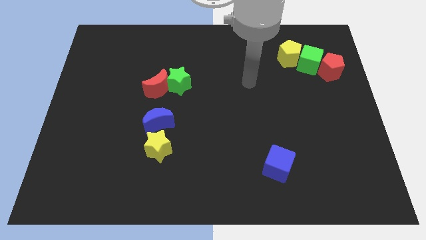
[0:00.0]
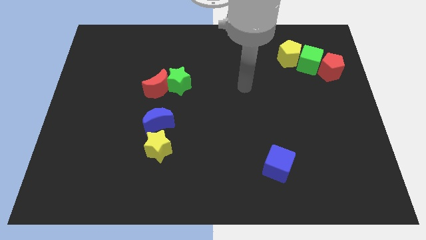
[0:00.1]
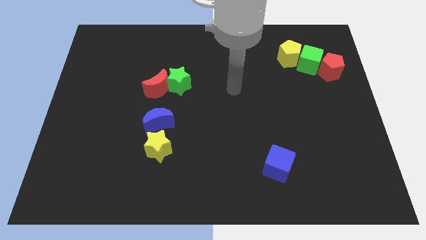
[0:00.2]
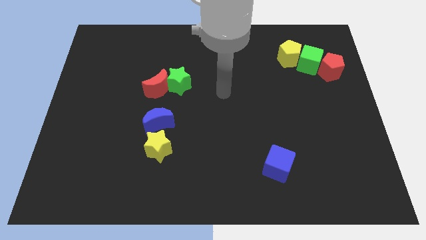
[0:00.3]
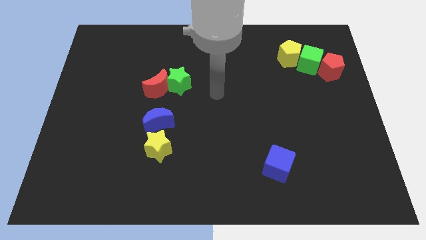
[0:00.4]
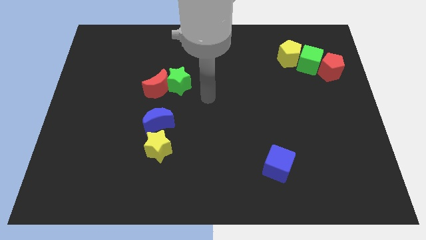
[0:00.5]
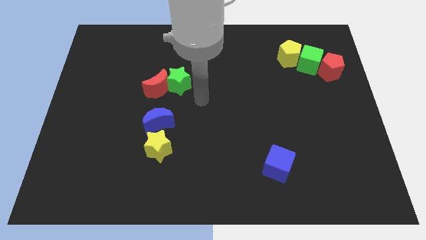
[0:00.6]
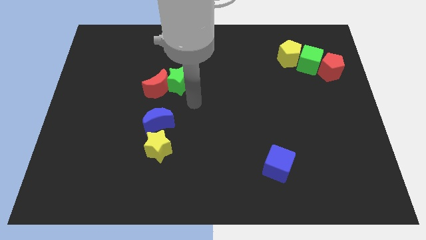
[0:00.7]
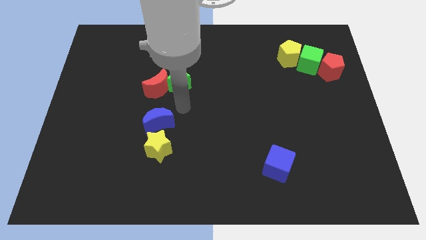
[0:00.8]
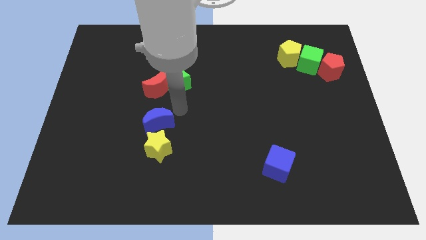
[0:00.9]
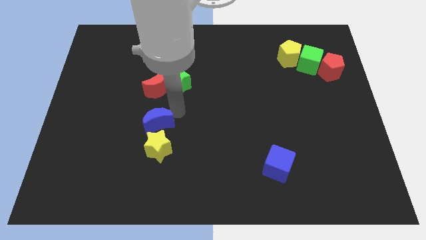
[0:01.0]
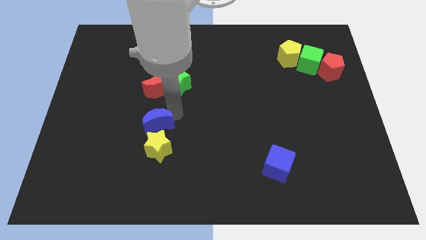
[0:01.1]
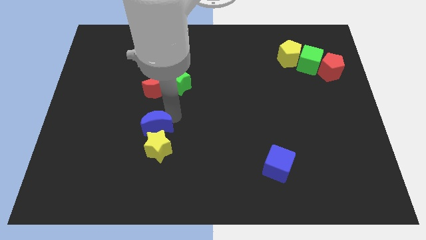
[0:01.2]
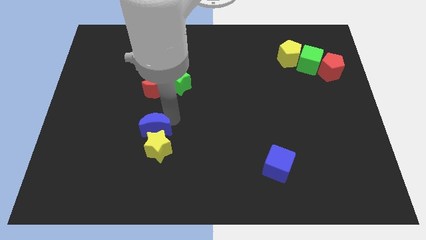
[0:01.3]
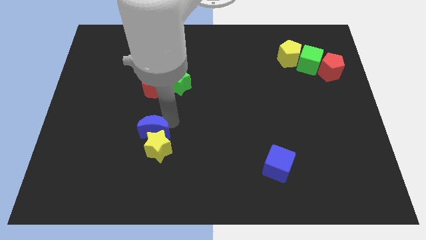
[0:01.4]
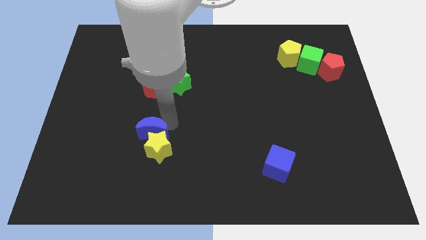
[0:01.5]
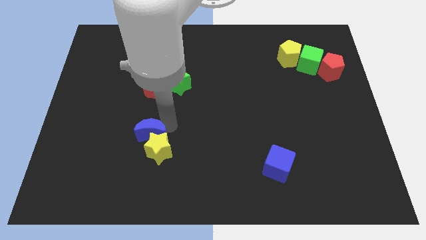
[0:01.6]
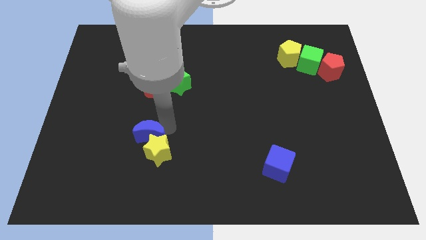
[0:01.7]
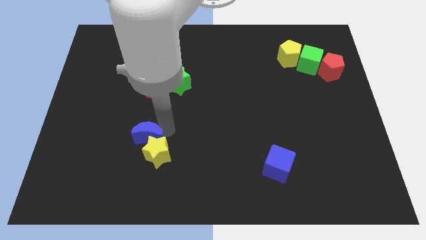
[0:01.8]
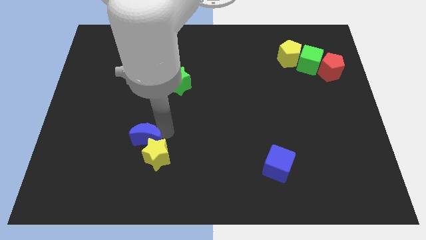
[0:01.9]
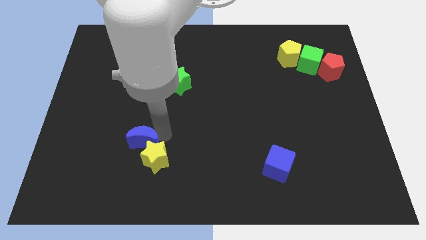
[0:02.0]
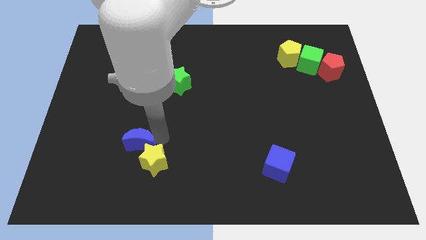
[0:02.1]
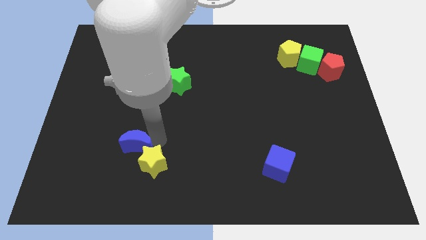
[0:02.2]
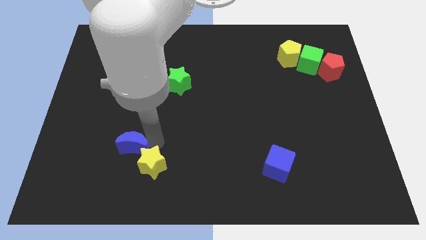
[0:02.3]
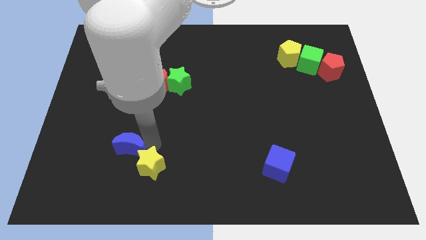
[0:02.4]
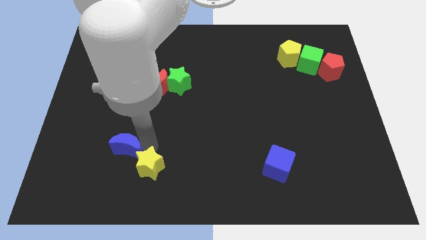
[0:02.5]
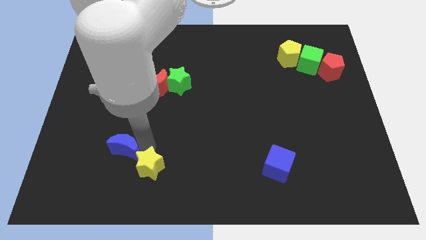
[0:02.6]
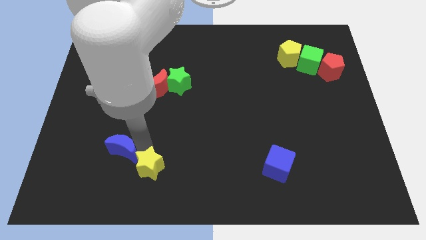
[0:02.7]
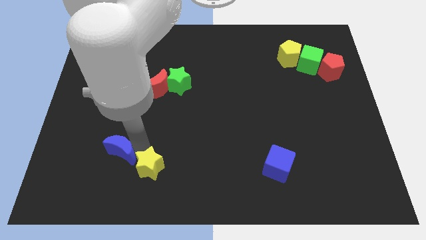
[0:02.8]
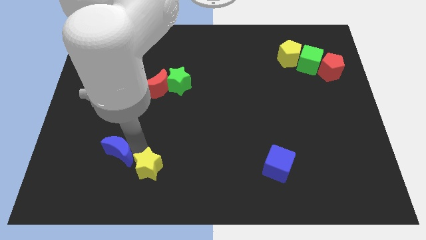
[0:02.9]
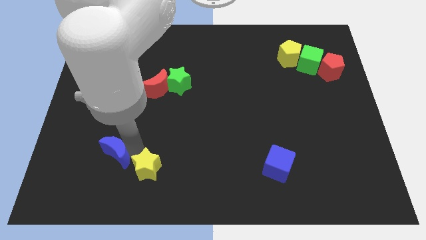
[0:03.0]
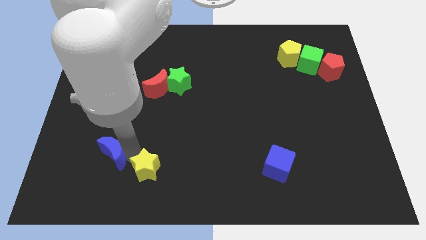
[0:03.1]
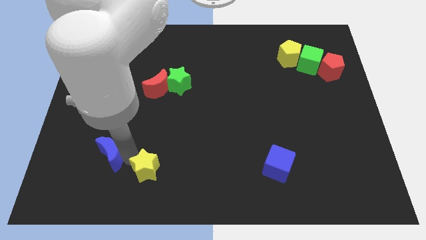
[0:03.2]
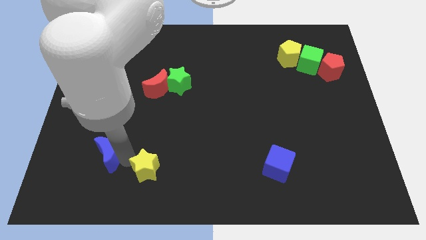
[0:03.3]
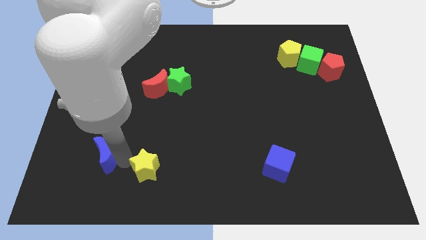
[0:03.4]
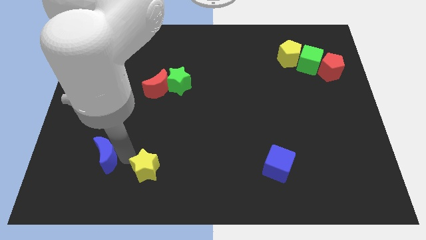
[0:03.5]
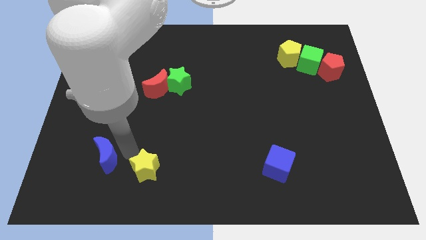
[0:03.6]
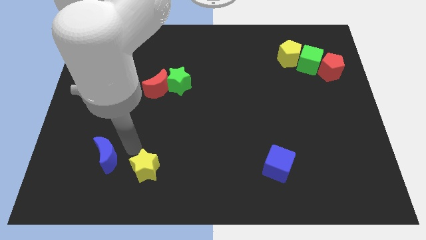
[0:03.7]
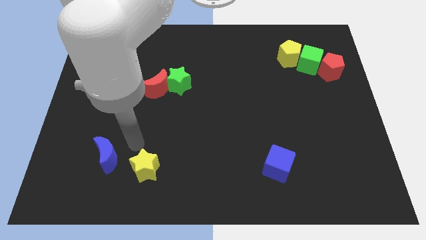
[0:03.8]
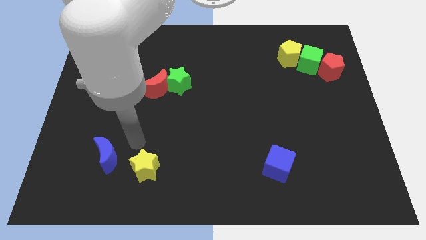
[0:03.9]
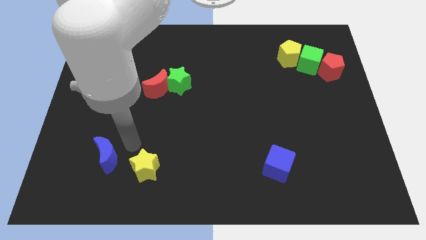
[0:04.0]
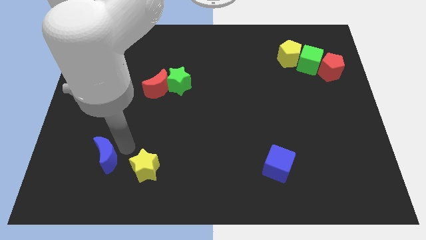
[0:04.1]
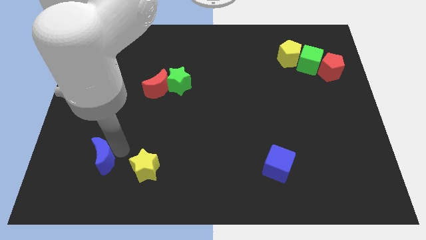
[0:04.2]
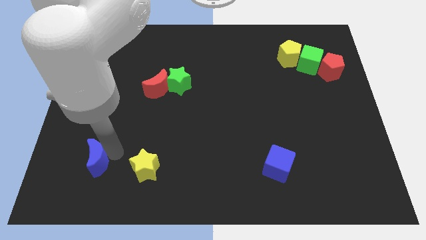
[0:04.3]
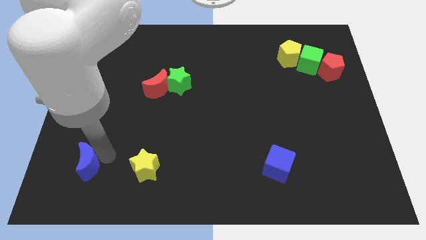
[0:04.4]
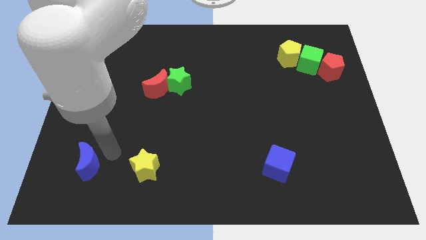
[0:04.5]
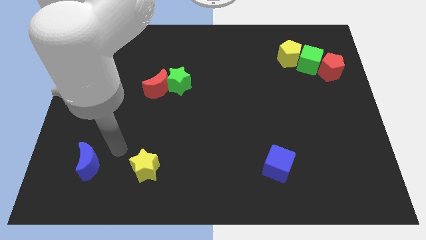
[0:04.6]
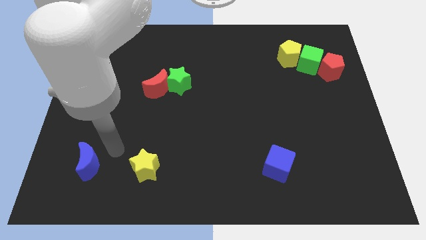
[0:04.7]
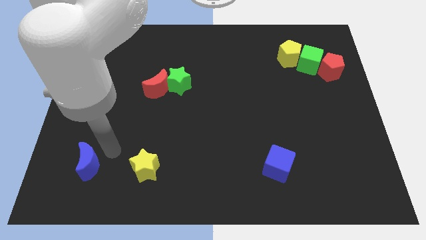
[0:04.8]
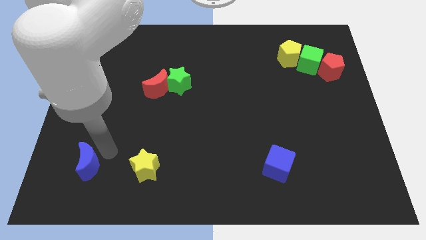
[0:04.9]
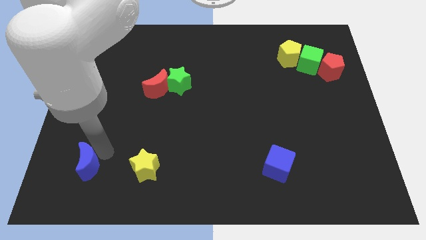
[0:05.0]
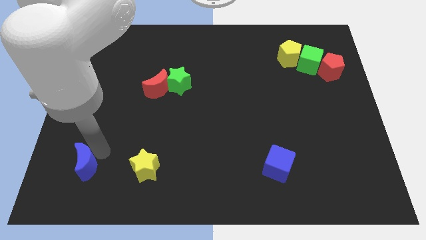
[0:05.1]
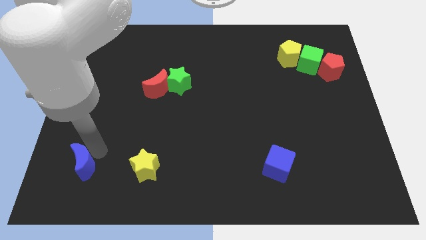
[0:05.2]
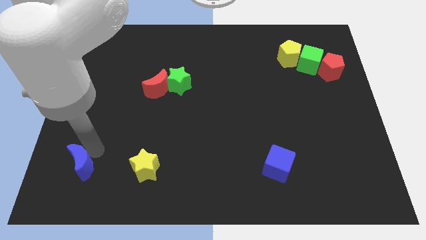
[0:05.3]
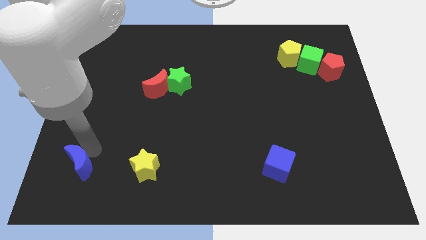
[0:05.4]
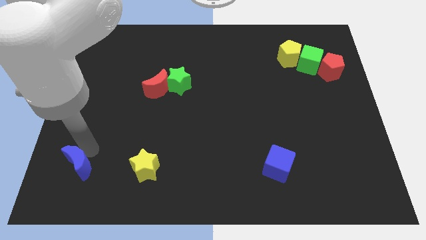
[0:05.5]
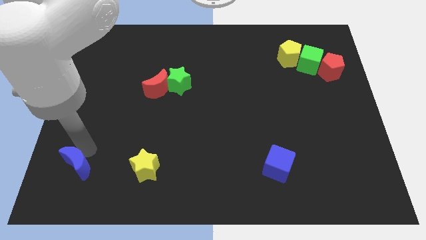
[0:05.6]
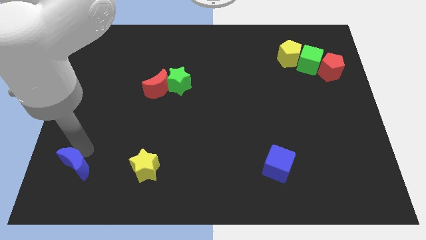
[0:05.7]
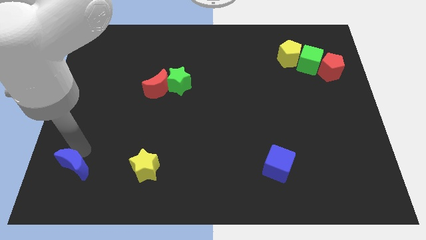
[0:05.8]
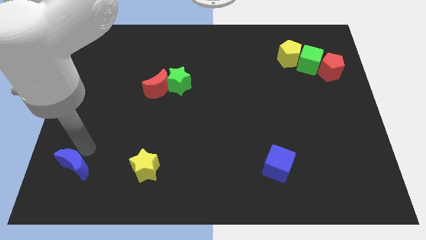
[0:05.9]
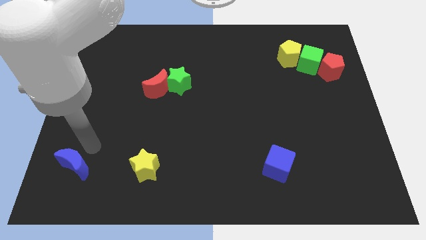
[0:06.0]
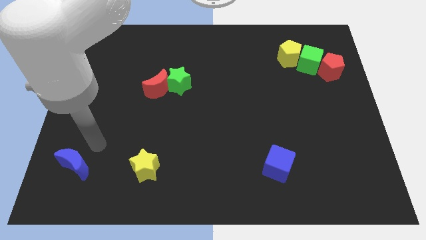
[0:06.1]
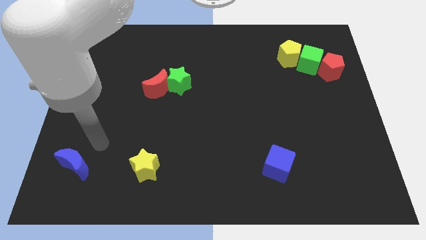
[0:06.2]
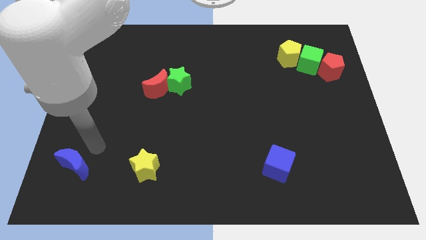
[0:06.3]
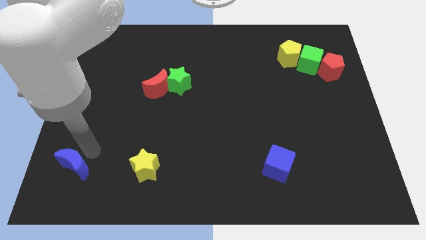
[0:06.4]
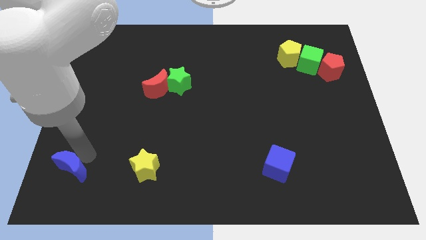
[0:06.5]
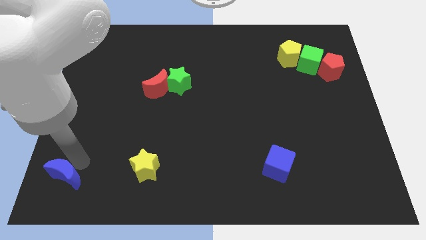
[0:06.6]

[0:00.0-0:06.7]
put the blue moon to the lower left corner
